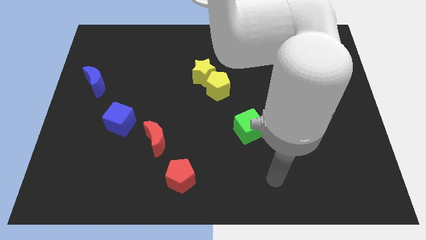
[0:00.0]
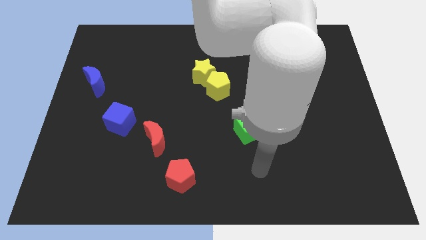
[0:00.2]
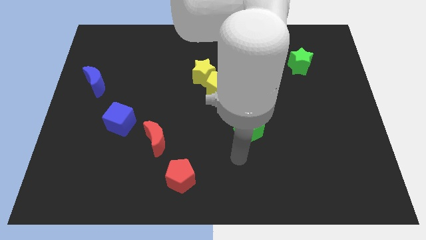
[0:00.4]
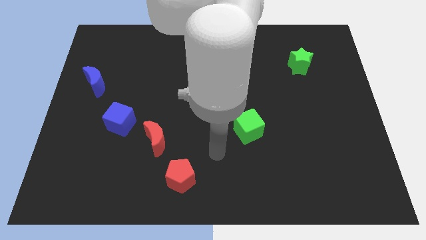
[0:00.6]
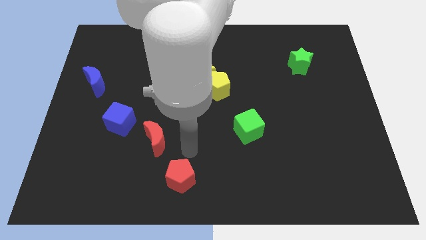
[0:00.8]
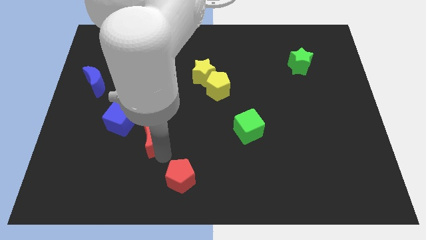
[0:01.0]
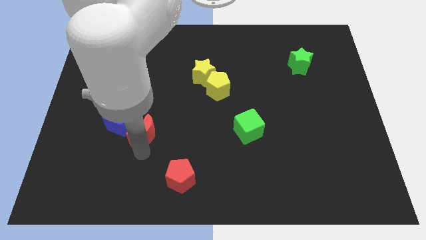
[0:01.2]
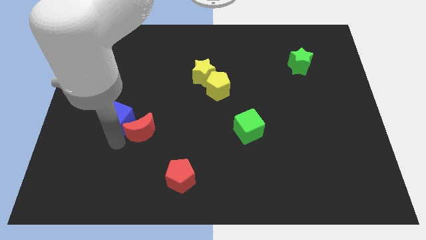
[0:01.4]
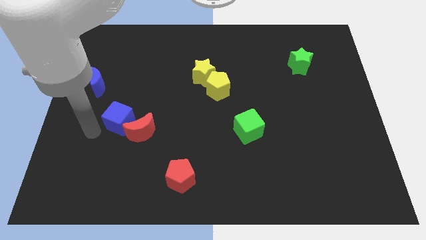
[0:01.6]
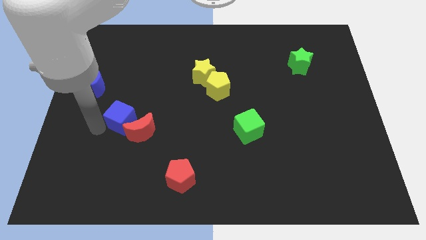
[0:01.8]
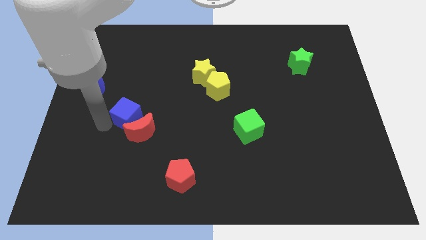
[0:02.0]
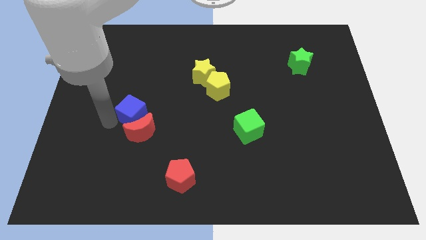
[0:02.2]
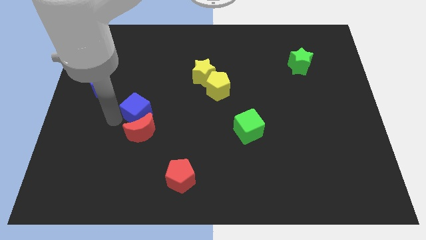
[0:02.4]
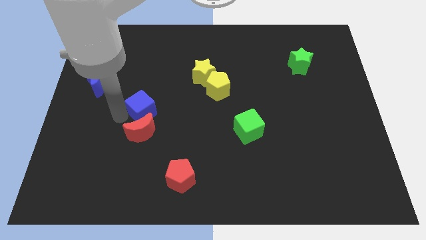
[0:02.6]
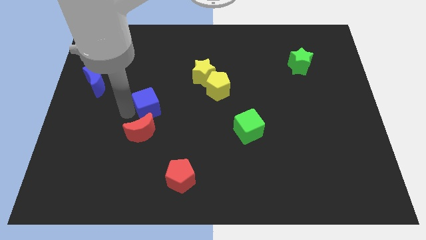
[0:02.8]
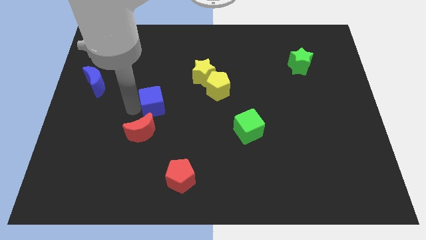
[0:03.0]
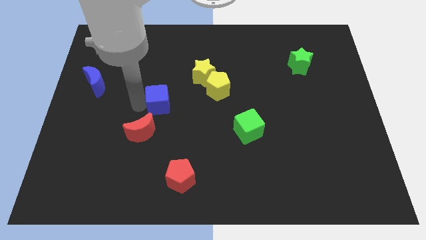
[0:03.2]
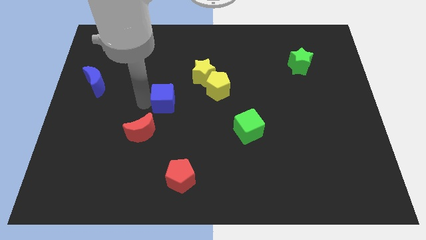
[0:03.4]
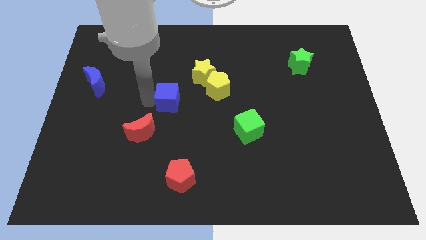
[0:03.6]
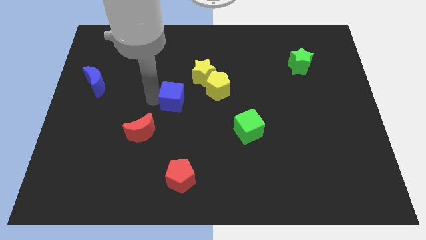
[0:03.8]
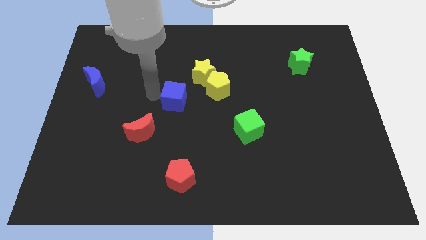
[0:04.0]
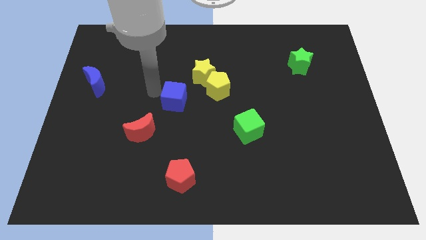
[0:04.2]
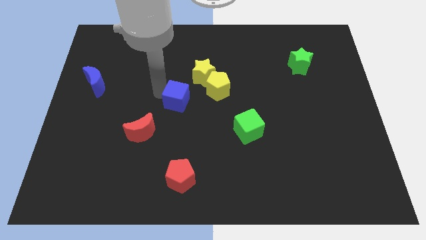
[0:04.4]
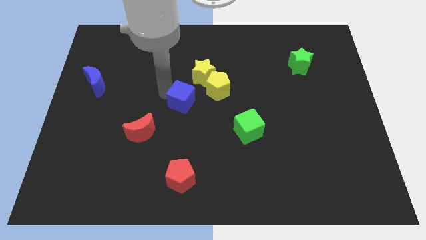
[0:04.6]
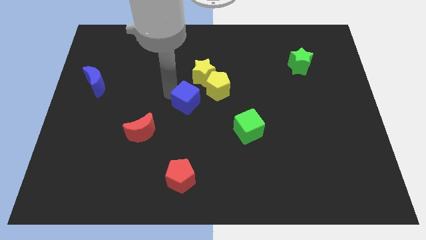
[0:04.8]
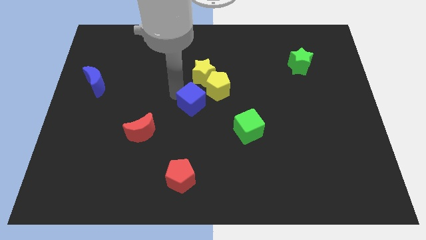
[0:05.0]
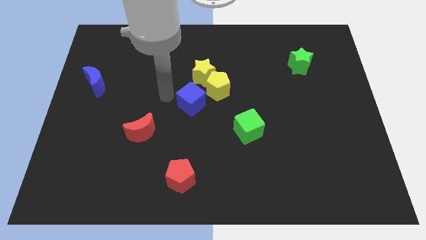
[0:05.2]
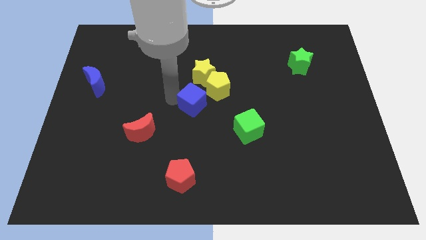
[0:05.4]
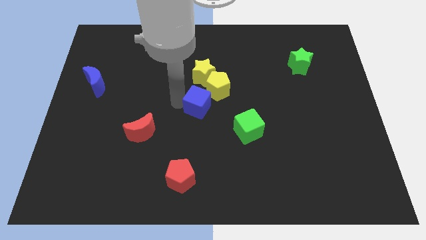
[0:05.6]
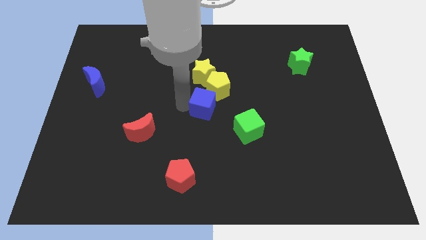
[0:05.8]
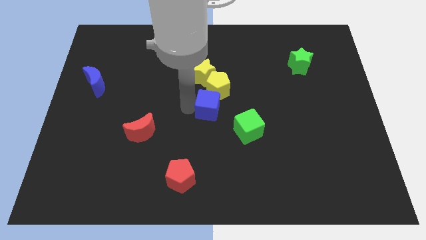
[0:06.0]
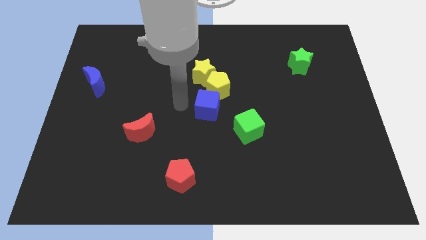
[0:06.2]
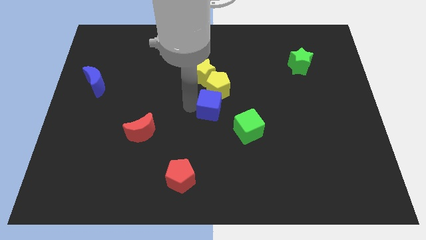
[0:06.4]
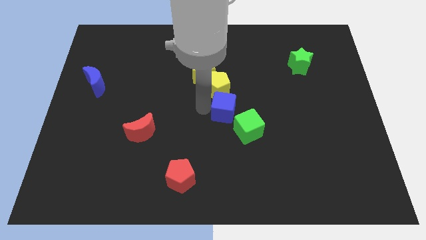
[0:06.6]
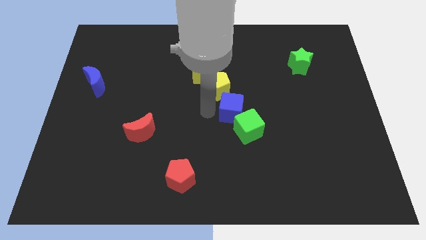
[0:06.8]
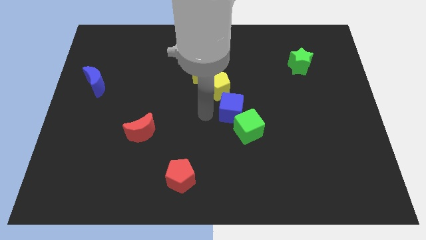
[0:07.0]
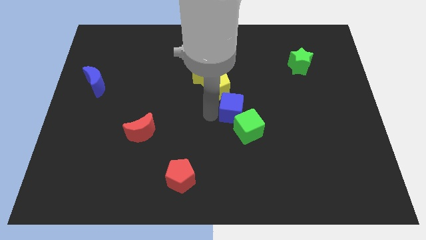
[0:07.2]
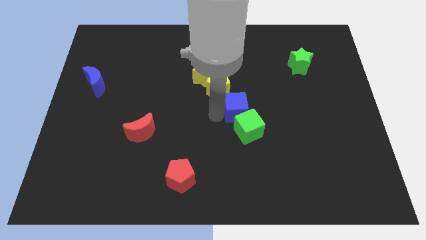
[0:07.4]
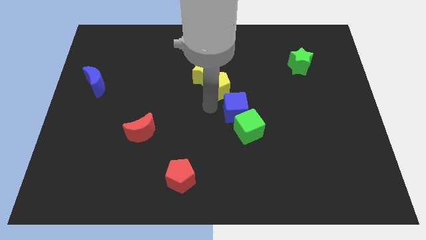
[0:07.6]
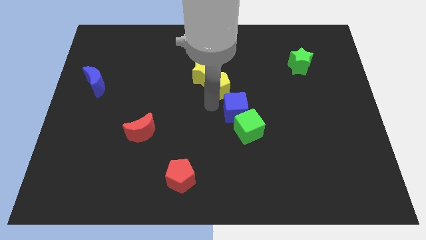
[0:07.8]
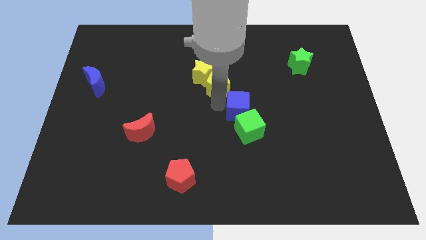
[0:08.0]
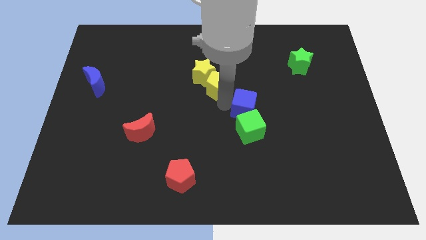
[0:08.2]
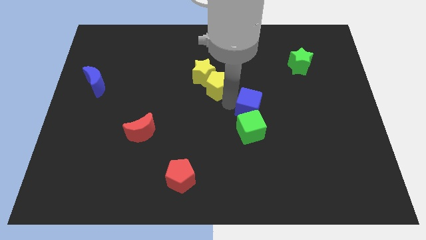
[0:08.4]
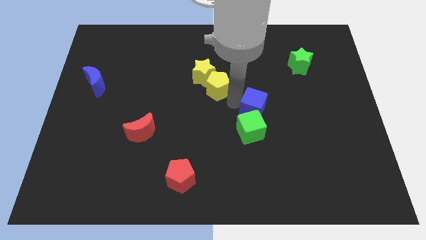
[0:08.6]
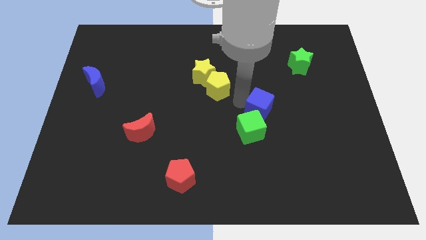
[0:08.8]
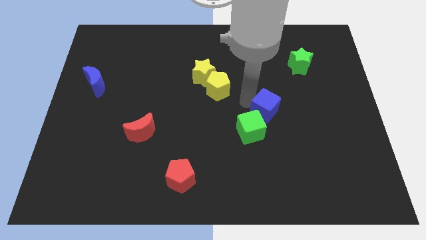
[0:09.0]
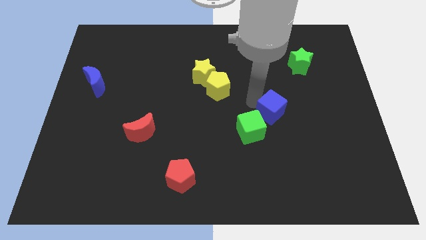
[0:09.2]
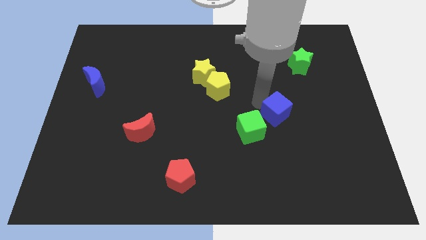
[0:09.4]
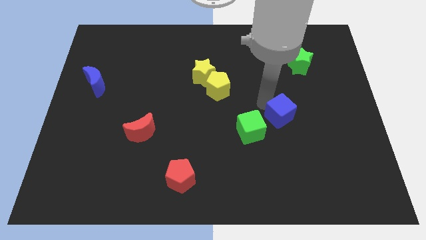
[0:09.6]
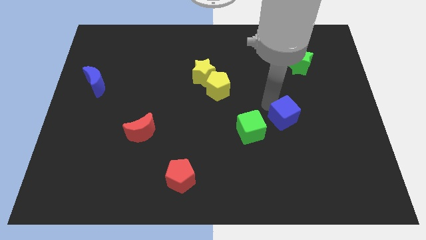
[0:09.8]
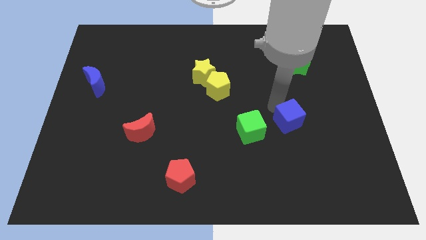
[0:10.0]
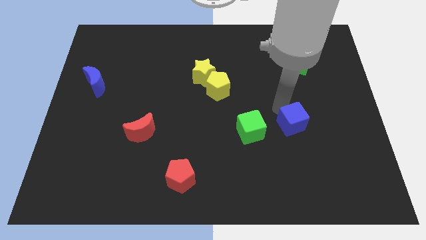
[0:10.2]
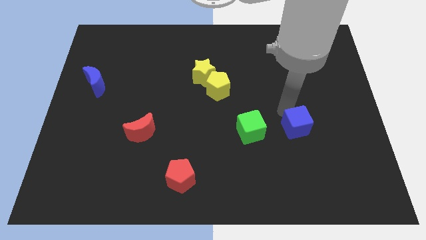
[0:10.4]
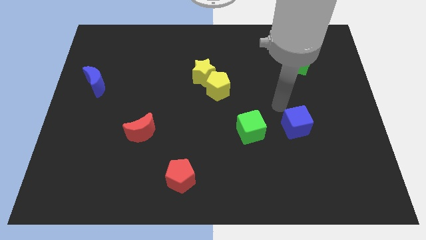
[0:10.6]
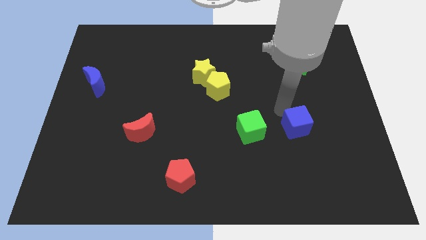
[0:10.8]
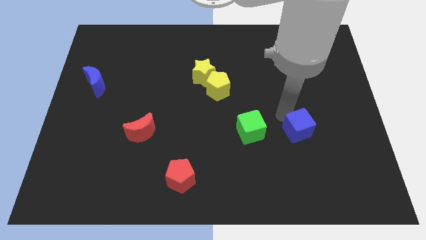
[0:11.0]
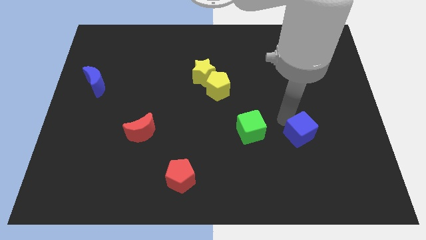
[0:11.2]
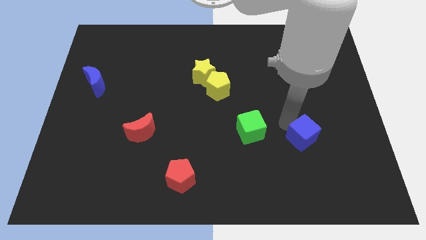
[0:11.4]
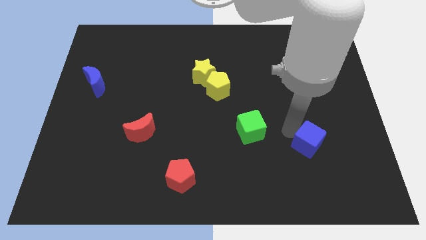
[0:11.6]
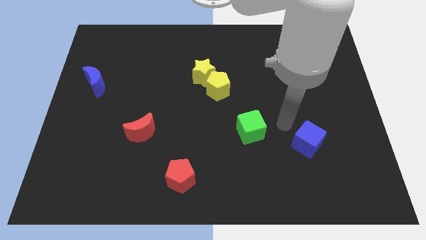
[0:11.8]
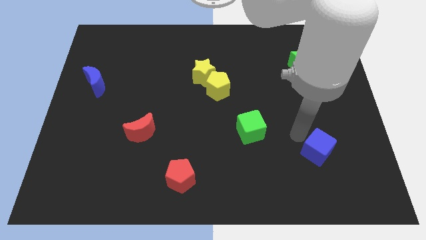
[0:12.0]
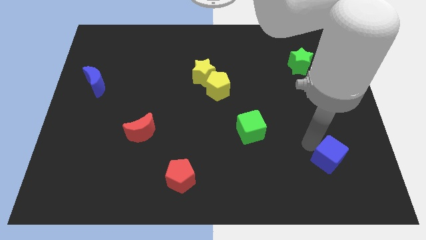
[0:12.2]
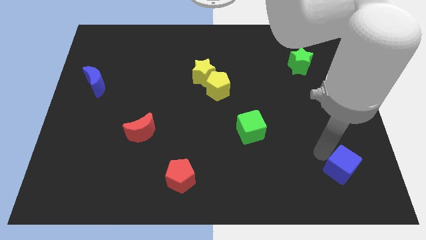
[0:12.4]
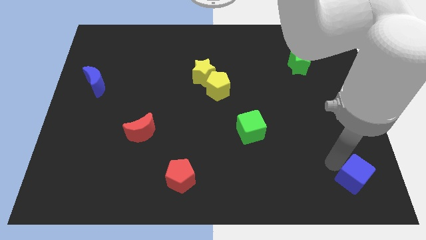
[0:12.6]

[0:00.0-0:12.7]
move the blue cube to the bottom right
